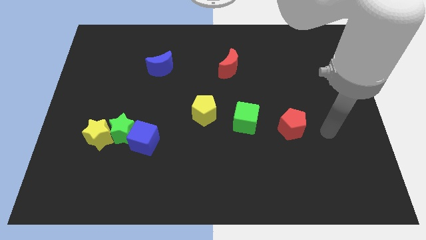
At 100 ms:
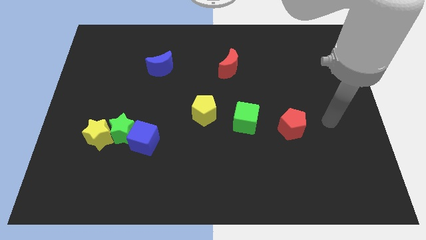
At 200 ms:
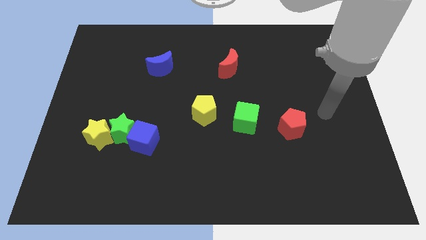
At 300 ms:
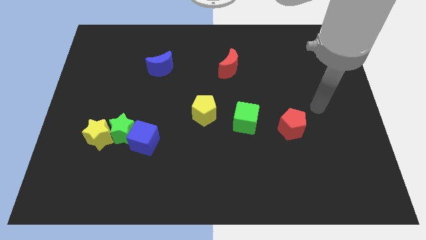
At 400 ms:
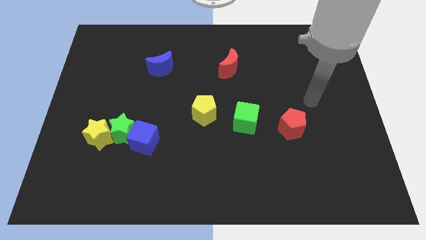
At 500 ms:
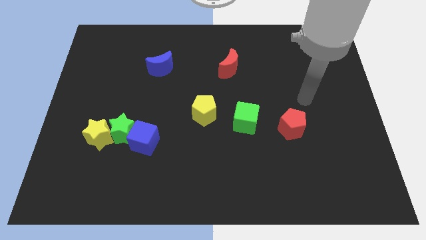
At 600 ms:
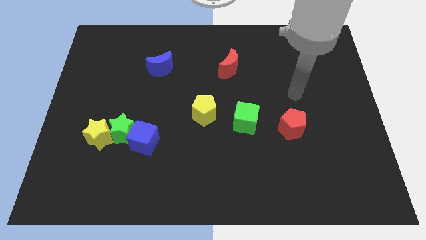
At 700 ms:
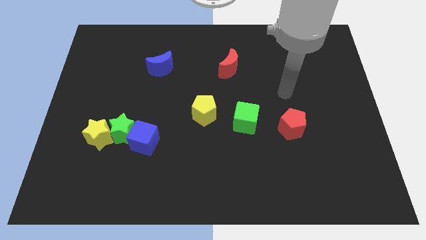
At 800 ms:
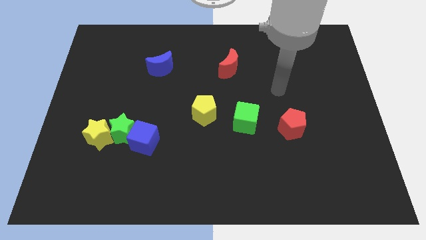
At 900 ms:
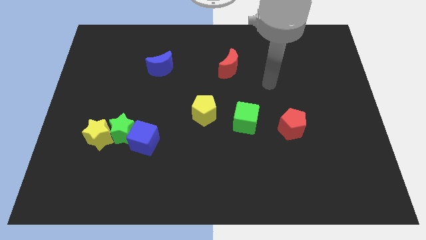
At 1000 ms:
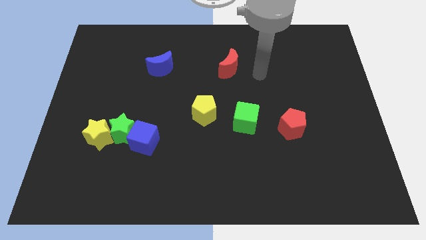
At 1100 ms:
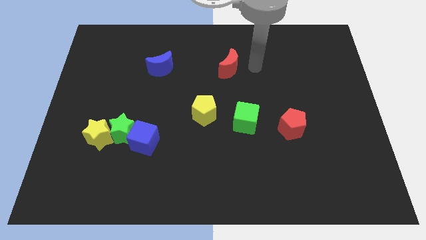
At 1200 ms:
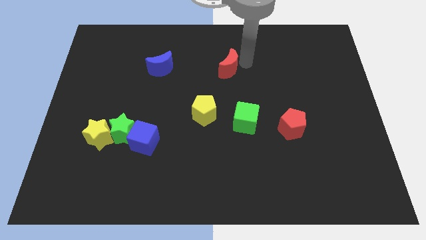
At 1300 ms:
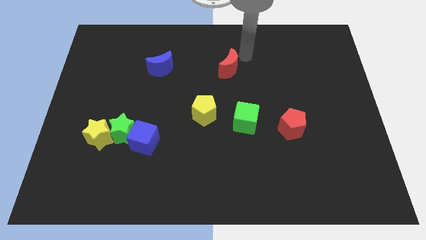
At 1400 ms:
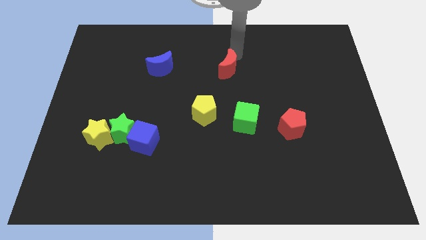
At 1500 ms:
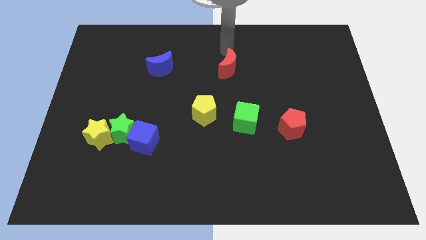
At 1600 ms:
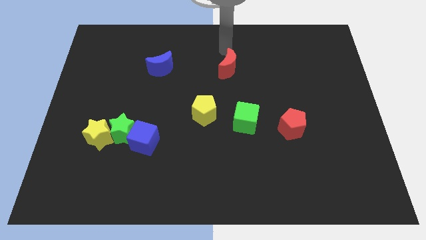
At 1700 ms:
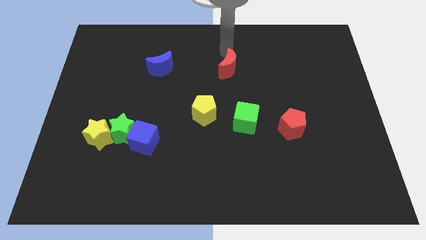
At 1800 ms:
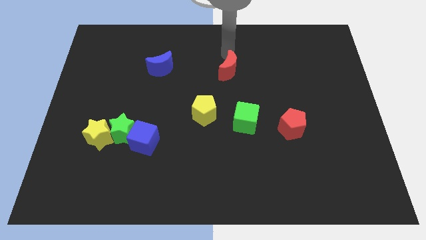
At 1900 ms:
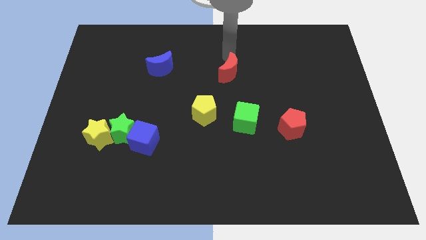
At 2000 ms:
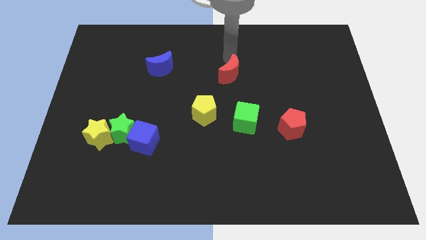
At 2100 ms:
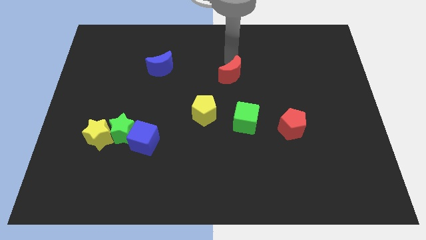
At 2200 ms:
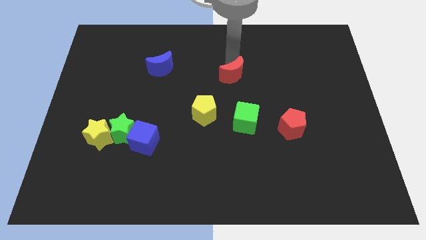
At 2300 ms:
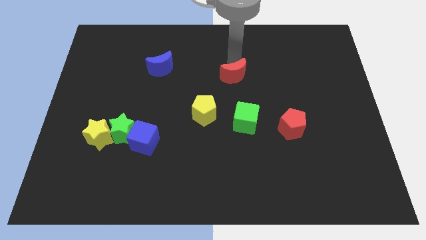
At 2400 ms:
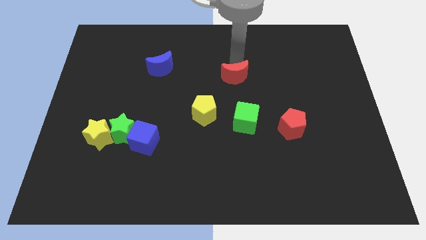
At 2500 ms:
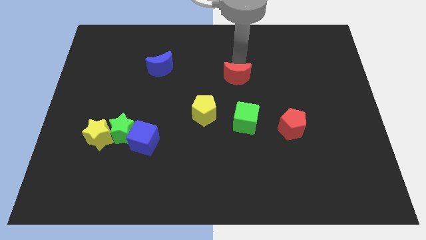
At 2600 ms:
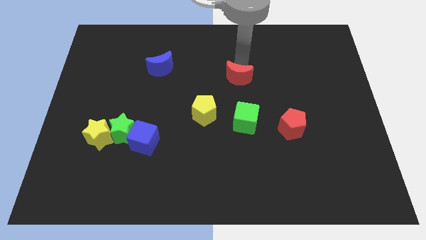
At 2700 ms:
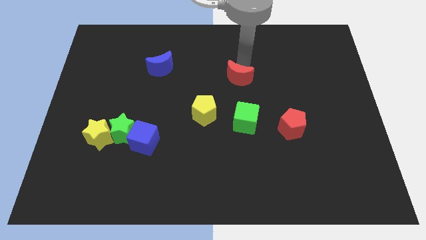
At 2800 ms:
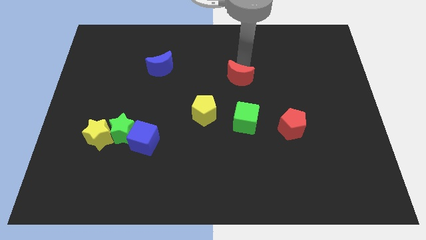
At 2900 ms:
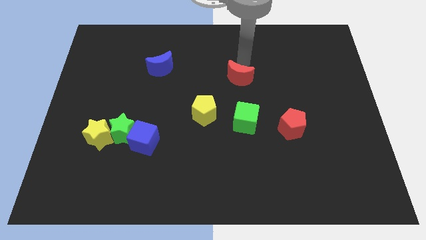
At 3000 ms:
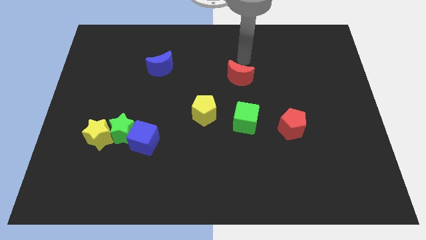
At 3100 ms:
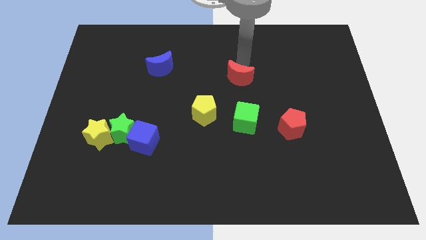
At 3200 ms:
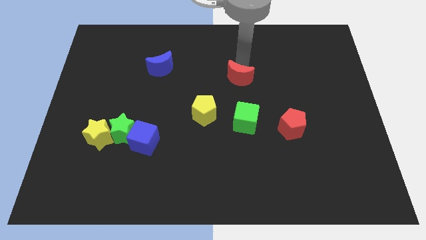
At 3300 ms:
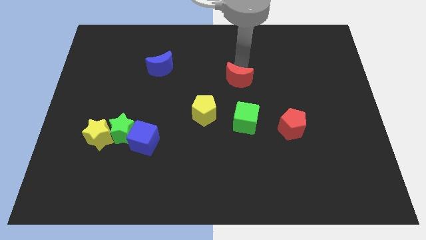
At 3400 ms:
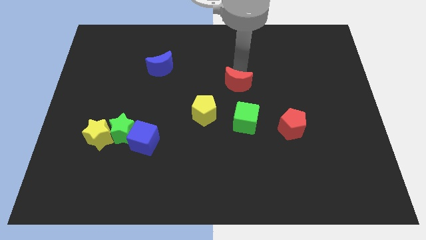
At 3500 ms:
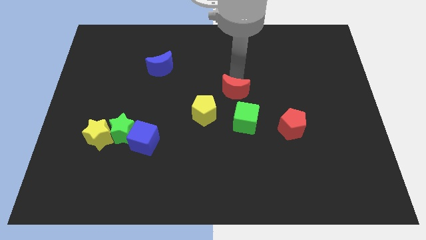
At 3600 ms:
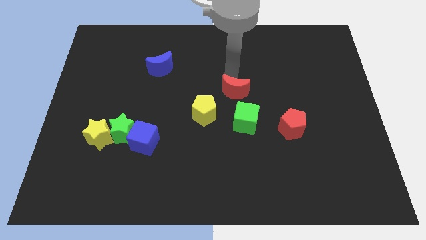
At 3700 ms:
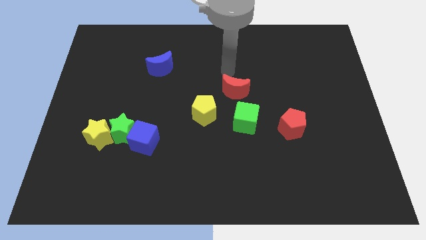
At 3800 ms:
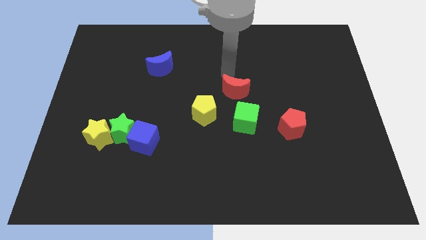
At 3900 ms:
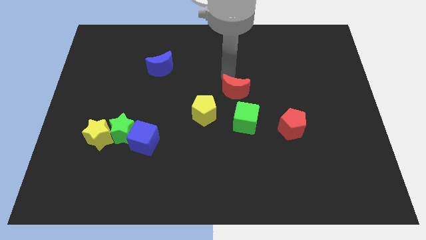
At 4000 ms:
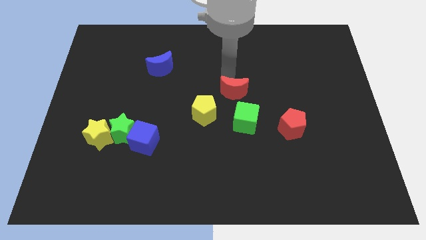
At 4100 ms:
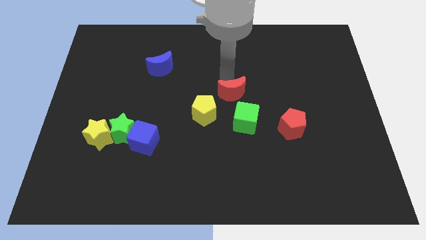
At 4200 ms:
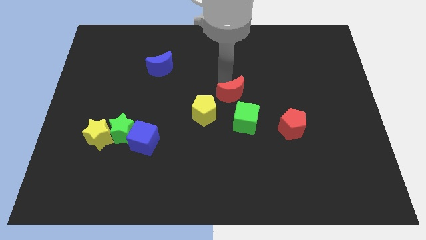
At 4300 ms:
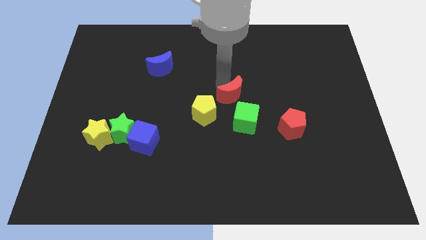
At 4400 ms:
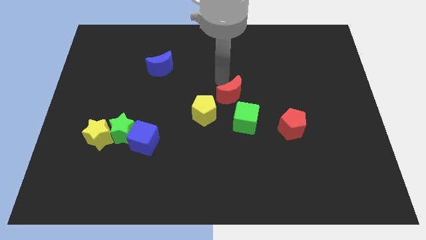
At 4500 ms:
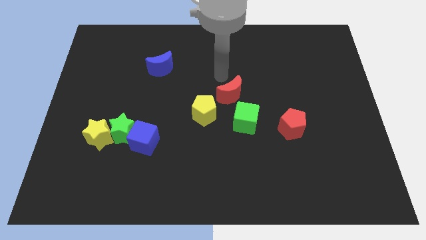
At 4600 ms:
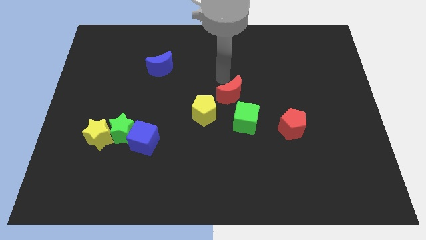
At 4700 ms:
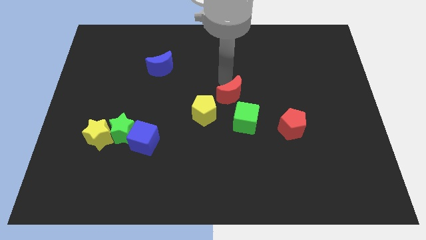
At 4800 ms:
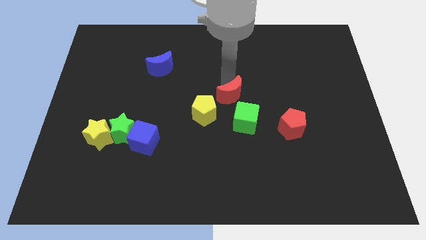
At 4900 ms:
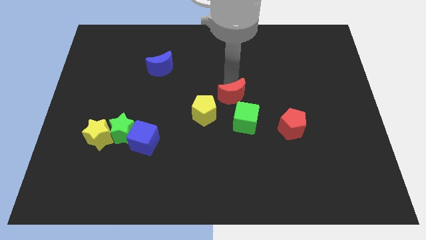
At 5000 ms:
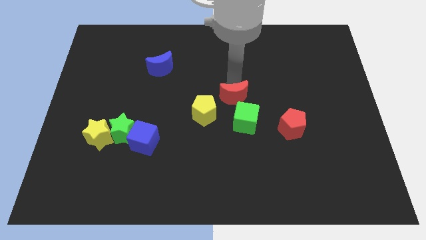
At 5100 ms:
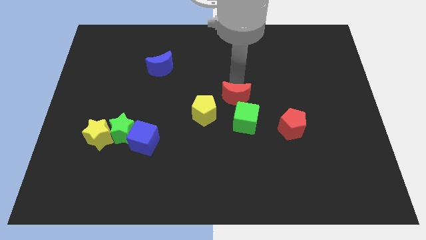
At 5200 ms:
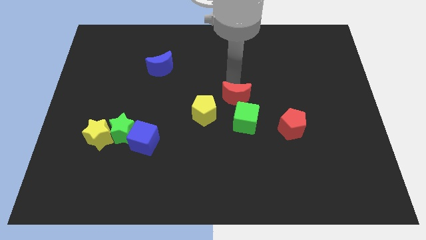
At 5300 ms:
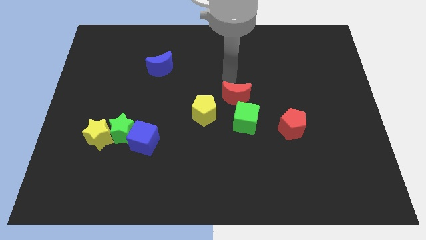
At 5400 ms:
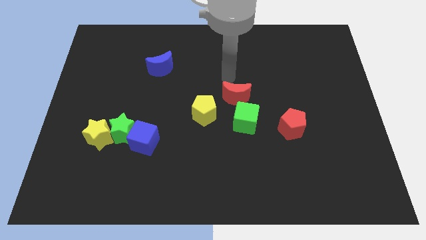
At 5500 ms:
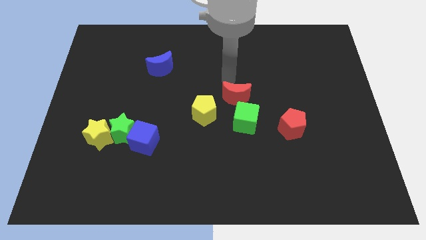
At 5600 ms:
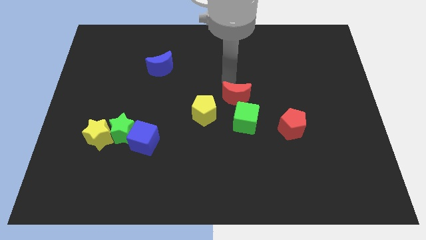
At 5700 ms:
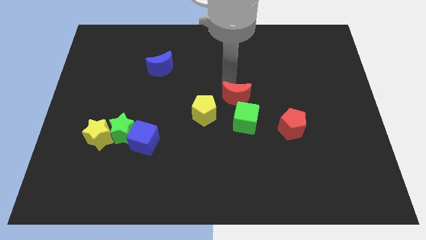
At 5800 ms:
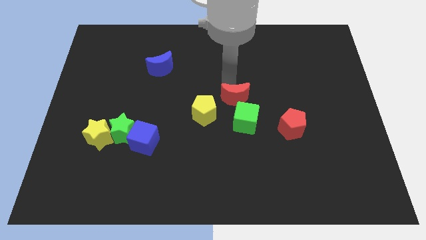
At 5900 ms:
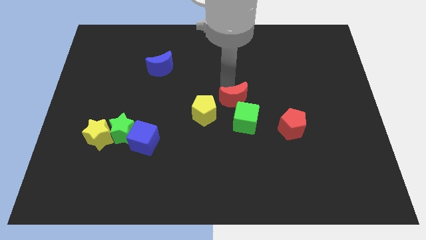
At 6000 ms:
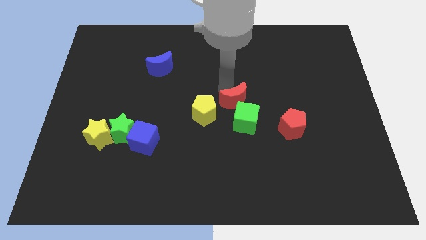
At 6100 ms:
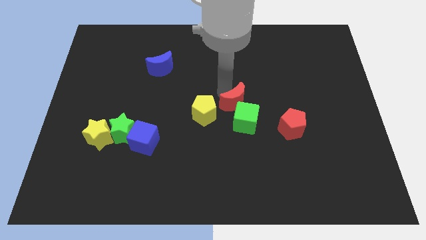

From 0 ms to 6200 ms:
push the red moon to the green cube
